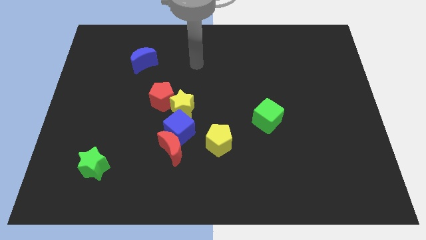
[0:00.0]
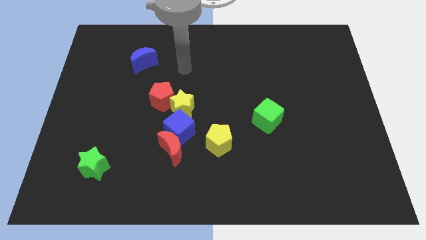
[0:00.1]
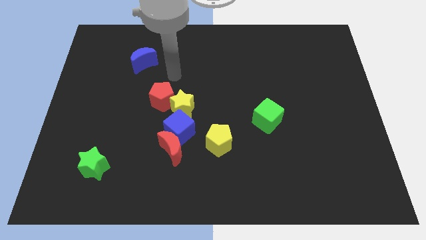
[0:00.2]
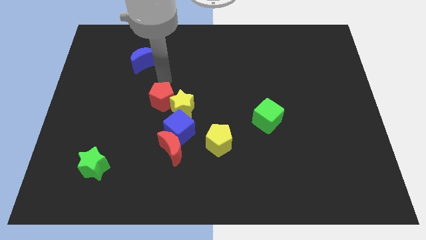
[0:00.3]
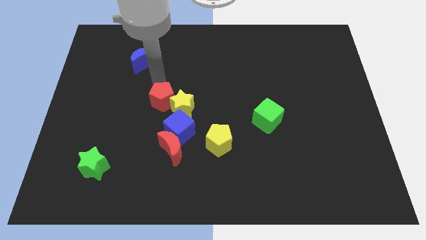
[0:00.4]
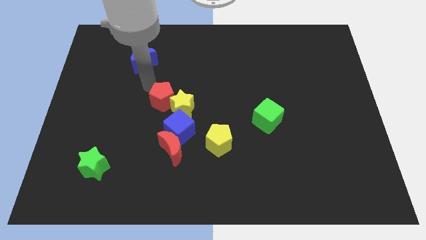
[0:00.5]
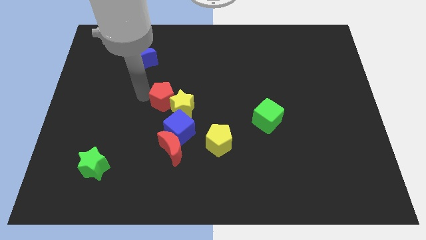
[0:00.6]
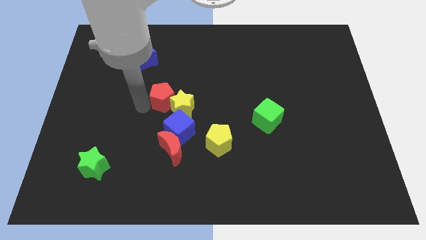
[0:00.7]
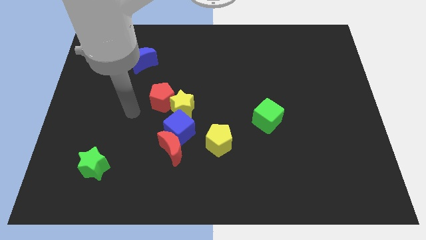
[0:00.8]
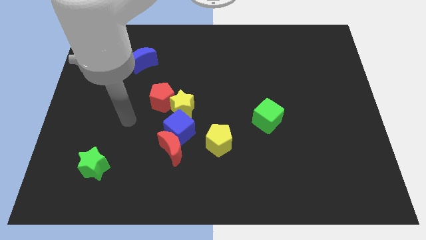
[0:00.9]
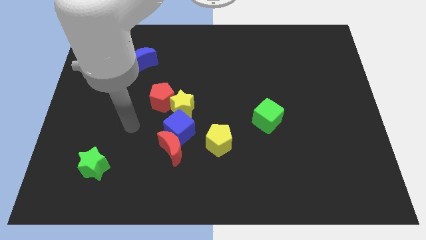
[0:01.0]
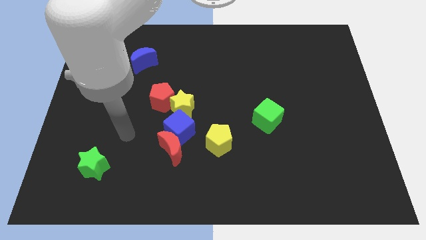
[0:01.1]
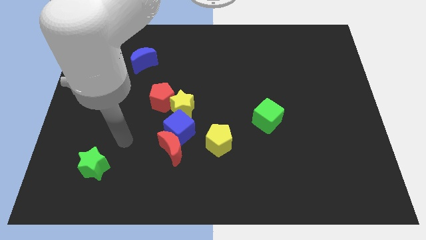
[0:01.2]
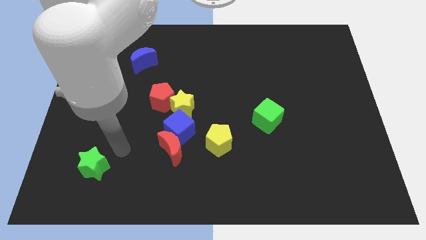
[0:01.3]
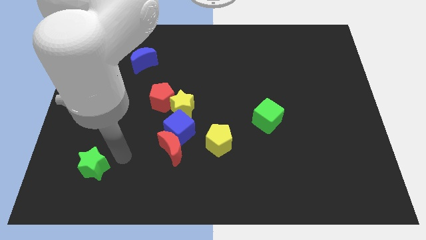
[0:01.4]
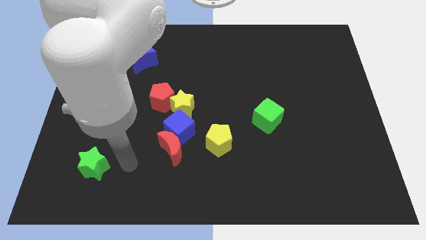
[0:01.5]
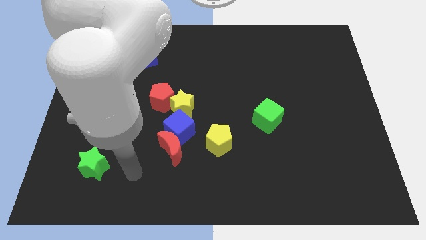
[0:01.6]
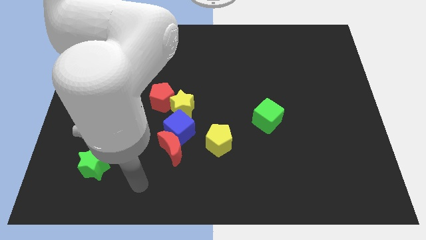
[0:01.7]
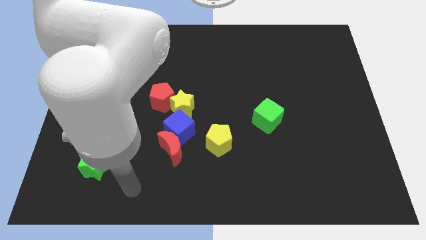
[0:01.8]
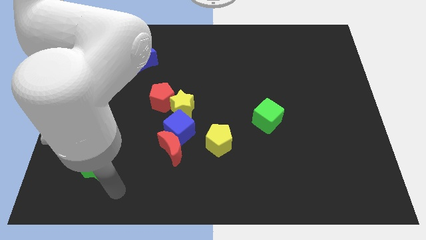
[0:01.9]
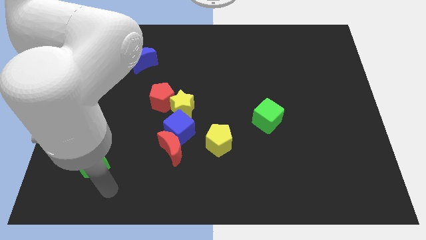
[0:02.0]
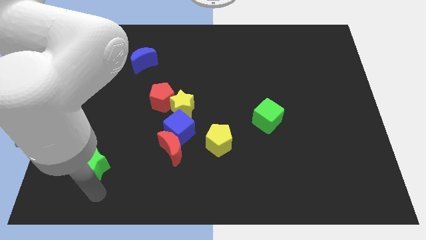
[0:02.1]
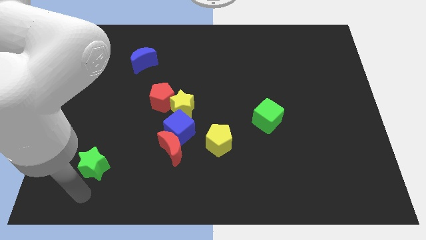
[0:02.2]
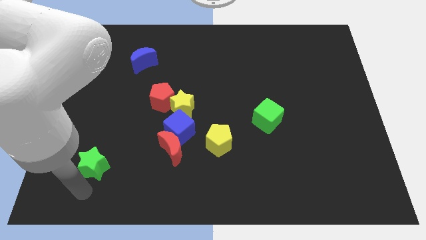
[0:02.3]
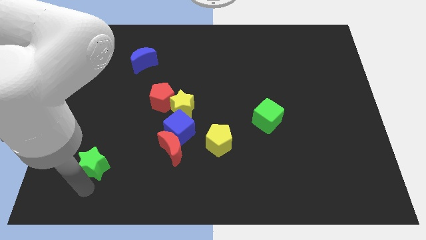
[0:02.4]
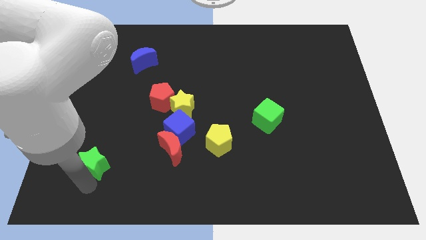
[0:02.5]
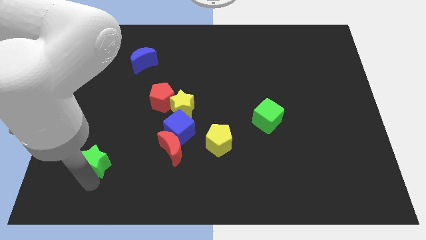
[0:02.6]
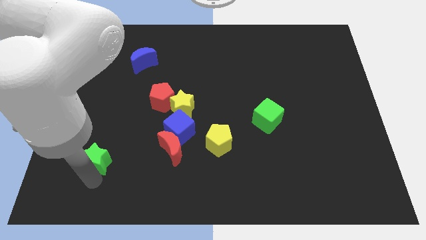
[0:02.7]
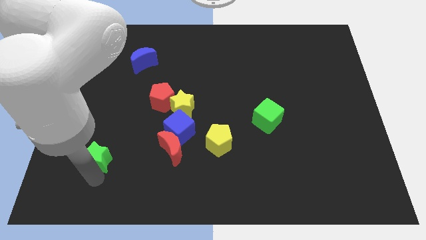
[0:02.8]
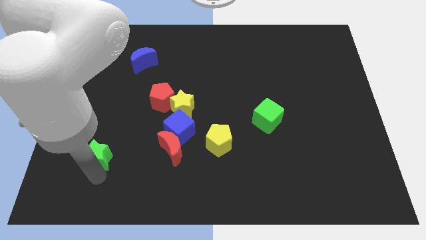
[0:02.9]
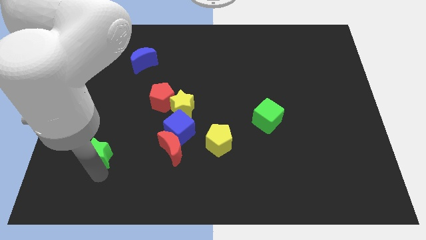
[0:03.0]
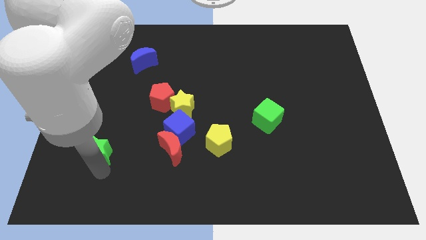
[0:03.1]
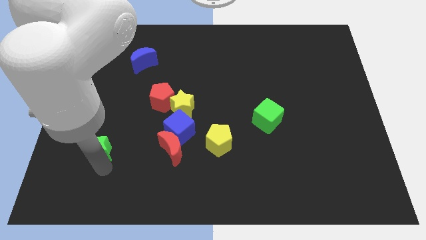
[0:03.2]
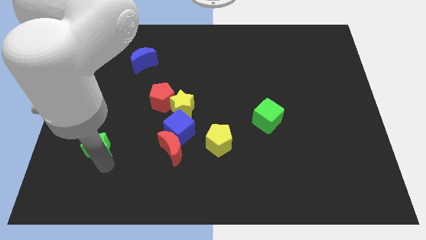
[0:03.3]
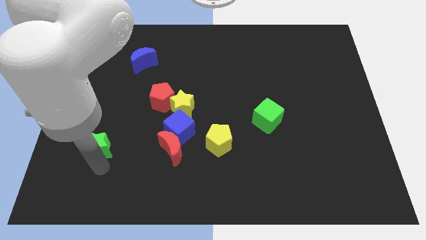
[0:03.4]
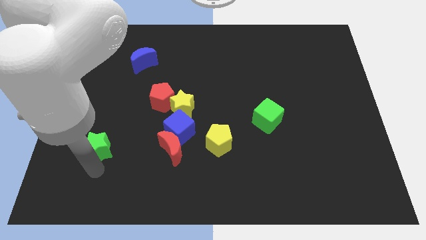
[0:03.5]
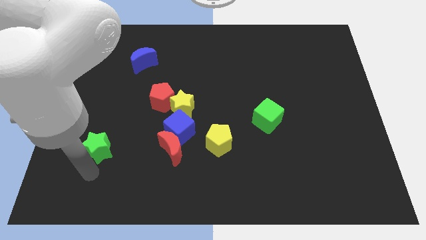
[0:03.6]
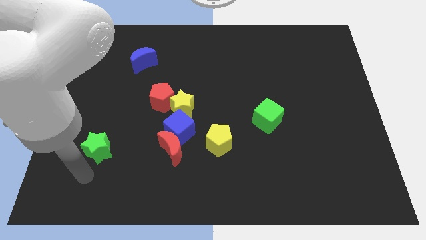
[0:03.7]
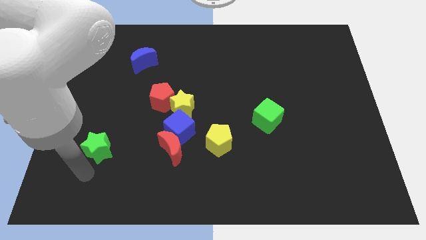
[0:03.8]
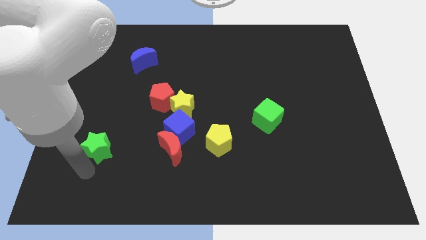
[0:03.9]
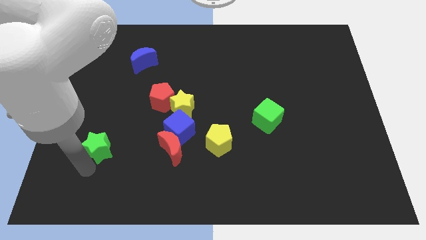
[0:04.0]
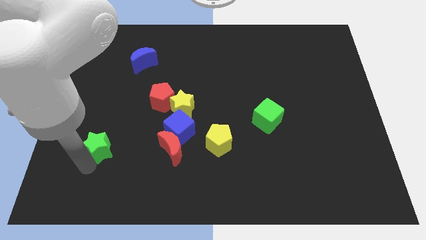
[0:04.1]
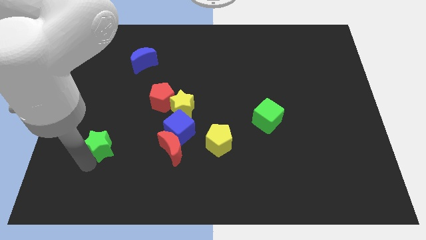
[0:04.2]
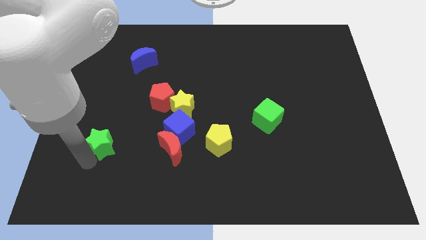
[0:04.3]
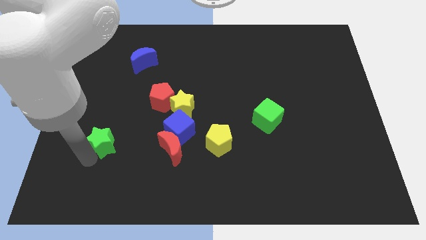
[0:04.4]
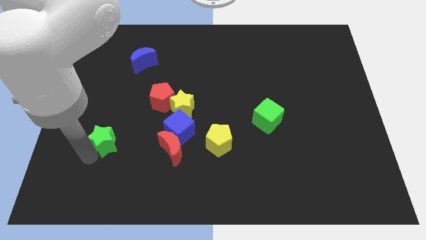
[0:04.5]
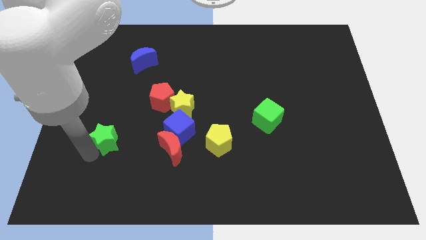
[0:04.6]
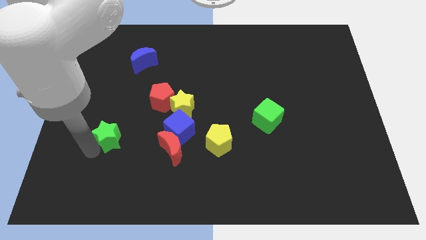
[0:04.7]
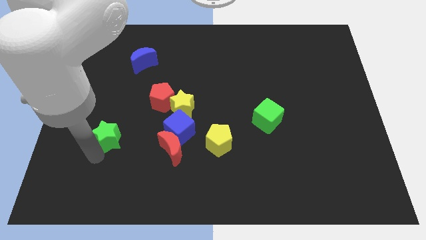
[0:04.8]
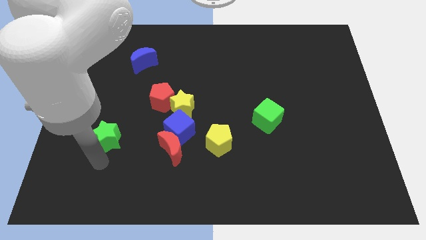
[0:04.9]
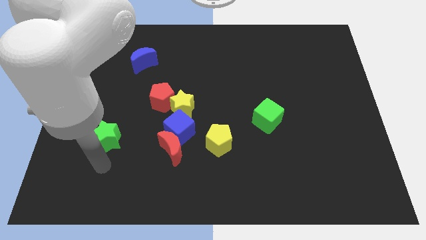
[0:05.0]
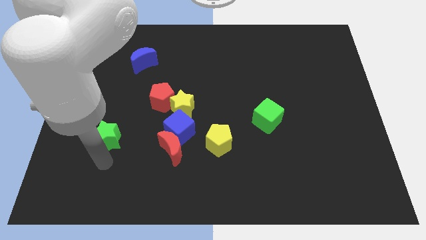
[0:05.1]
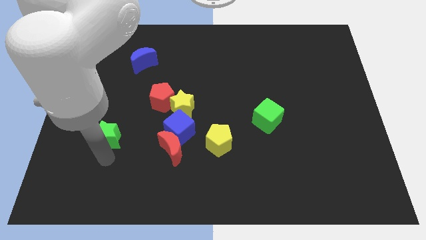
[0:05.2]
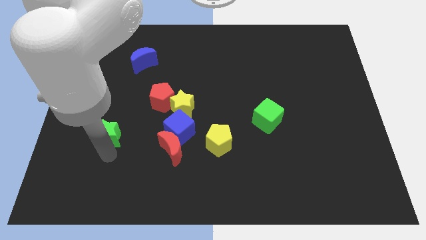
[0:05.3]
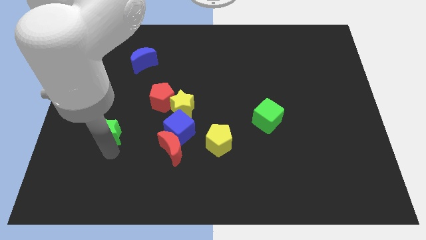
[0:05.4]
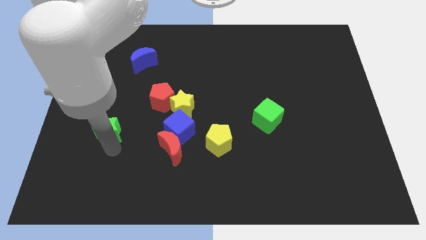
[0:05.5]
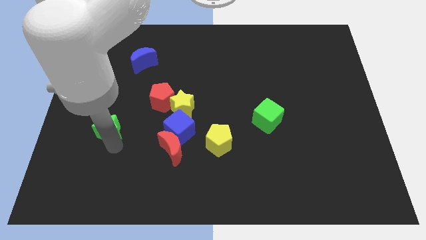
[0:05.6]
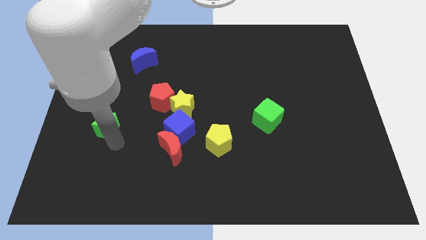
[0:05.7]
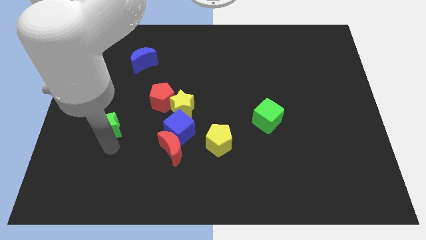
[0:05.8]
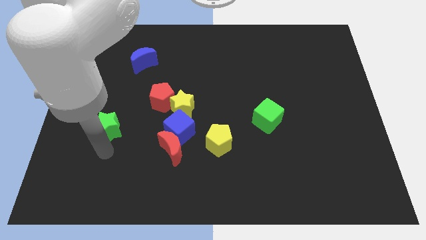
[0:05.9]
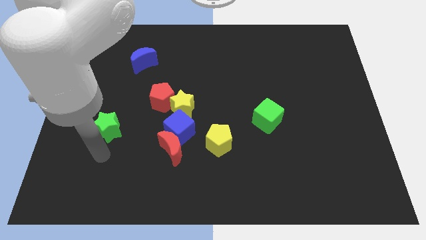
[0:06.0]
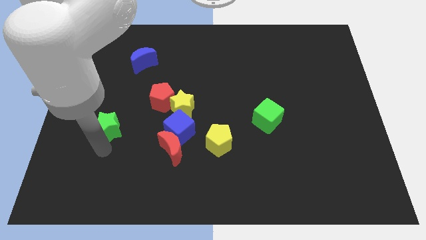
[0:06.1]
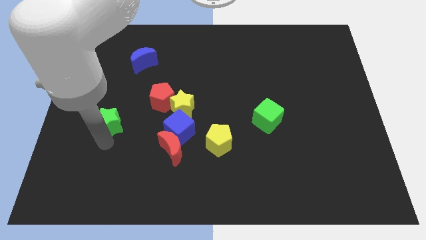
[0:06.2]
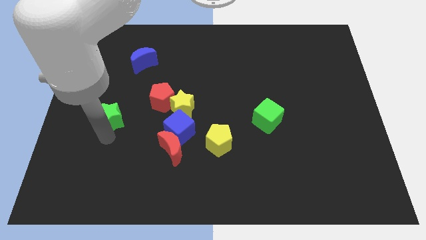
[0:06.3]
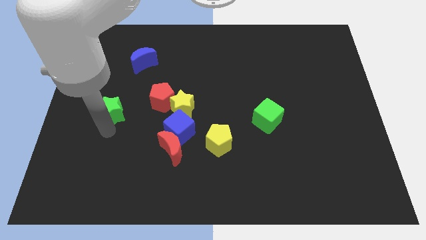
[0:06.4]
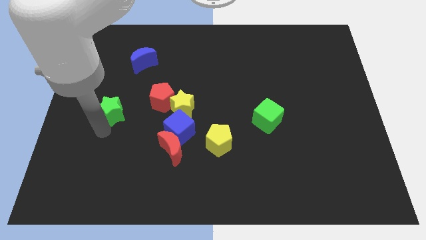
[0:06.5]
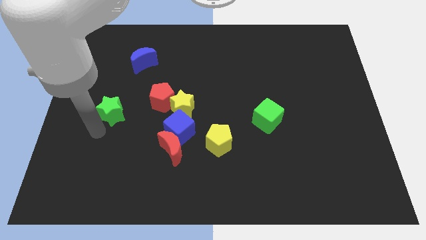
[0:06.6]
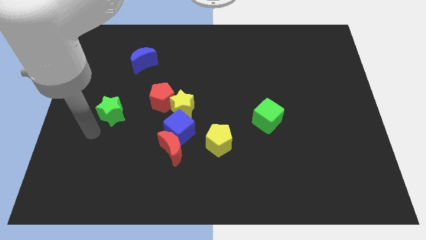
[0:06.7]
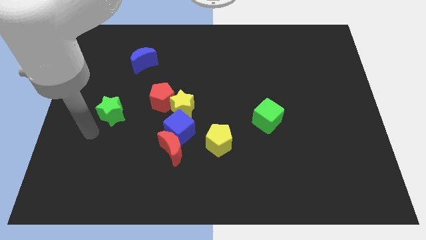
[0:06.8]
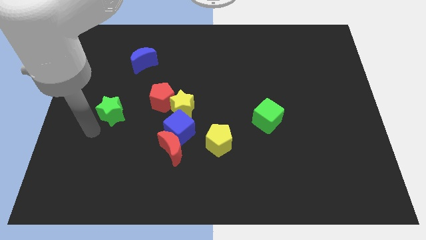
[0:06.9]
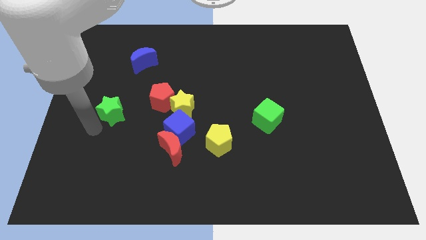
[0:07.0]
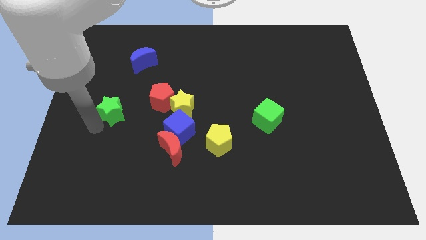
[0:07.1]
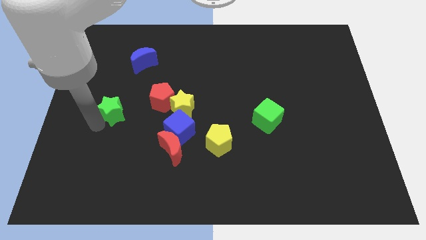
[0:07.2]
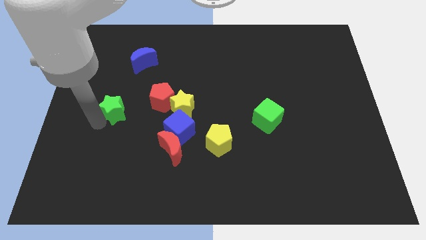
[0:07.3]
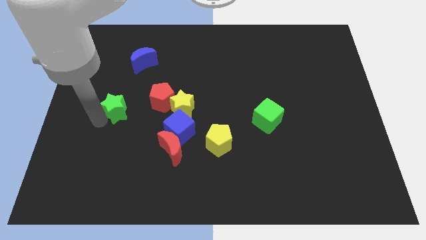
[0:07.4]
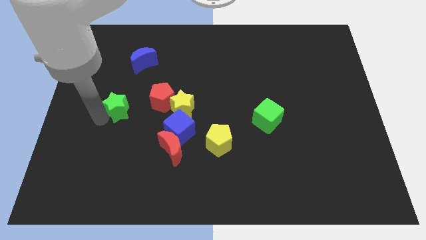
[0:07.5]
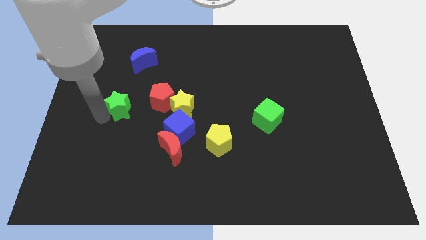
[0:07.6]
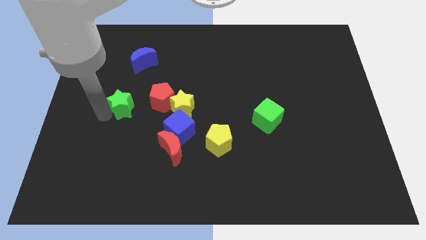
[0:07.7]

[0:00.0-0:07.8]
slide the green star to the bottom side of the blue moon

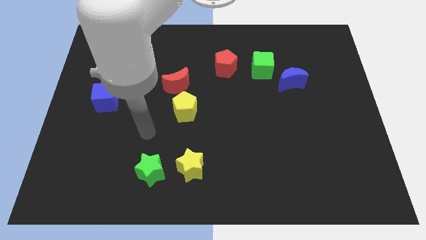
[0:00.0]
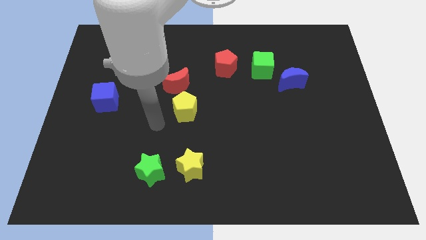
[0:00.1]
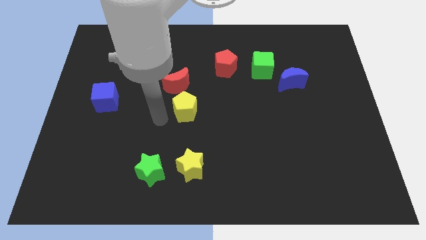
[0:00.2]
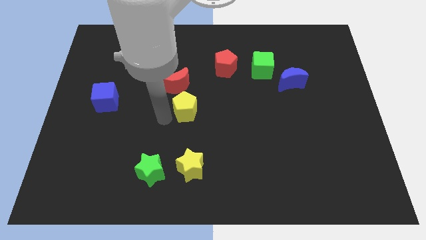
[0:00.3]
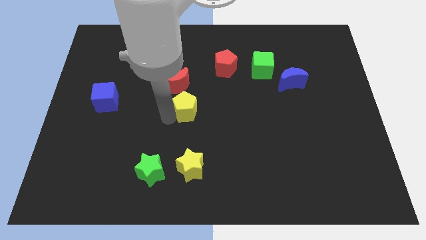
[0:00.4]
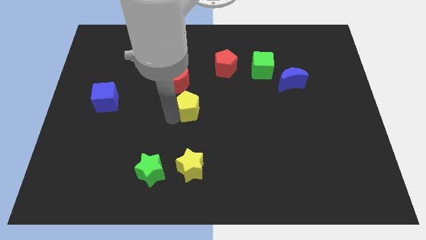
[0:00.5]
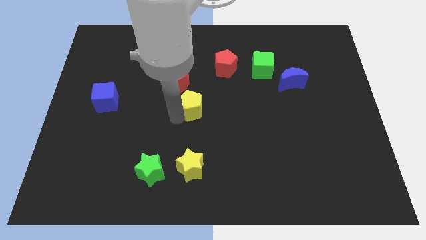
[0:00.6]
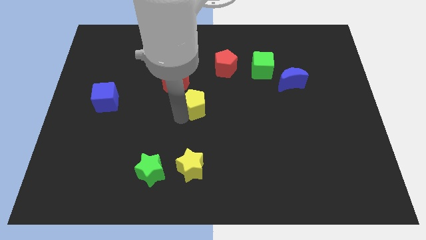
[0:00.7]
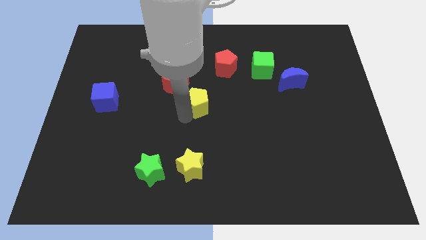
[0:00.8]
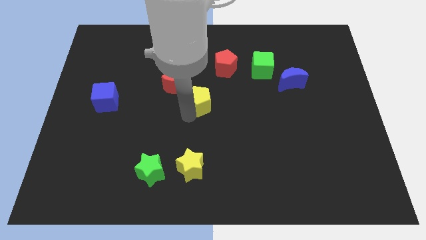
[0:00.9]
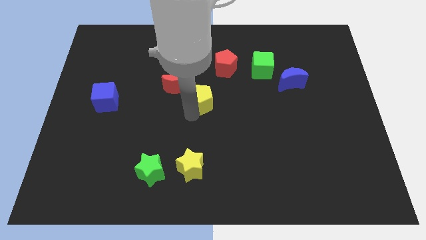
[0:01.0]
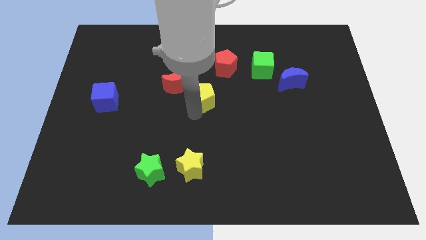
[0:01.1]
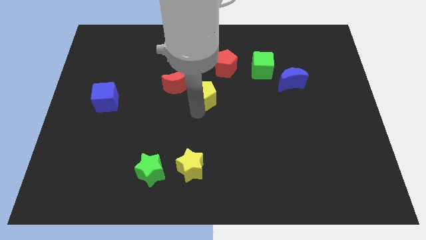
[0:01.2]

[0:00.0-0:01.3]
move the yellow pentagon to the bottom side of the red pentagon
